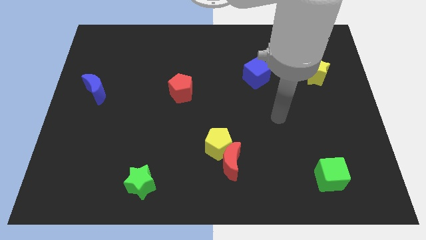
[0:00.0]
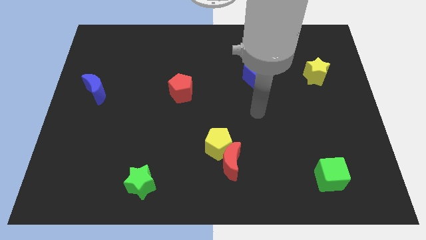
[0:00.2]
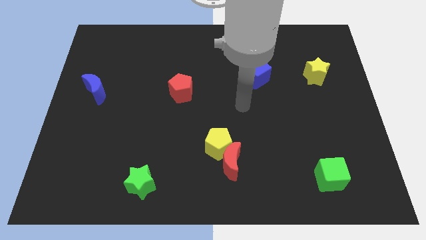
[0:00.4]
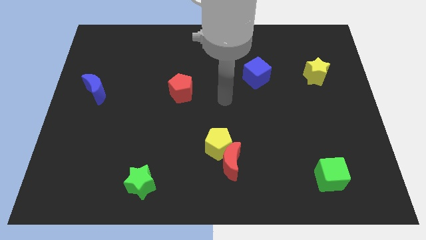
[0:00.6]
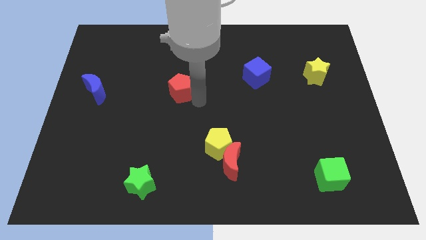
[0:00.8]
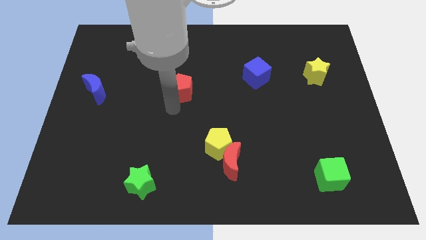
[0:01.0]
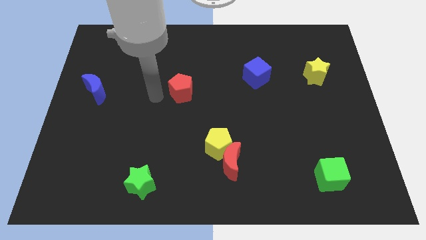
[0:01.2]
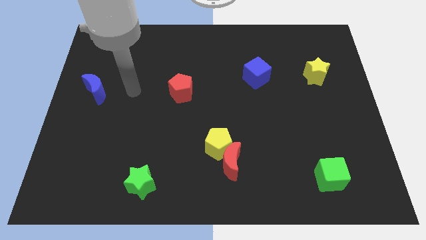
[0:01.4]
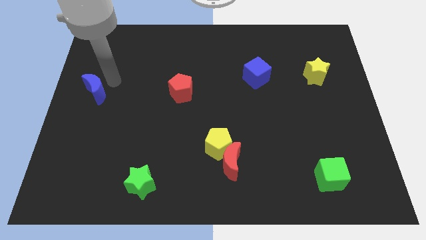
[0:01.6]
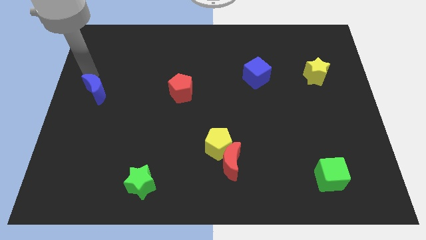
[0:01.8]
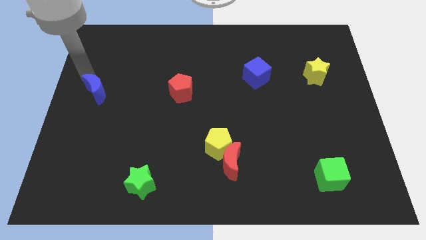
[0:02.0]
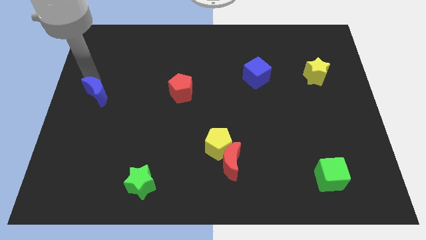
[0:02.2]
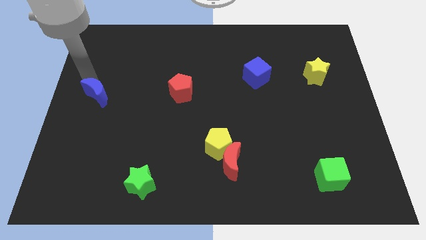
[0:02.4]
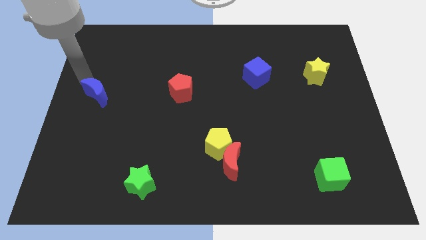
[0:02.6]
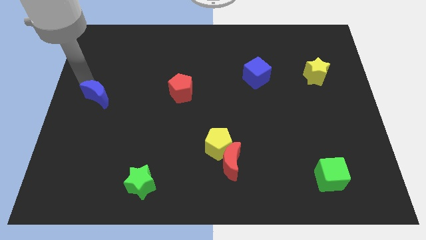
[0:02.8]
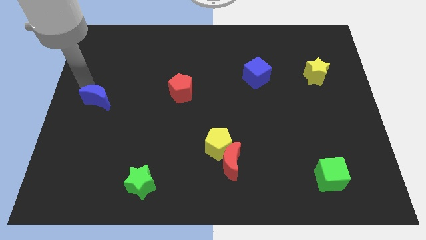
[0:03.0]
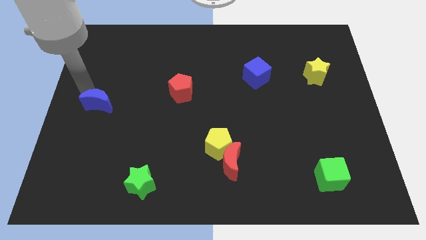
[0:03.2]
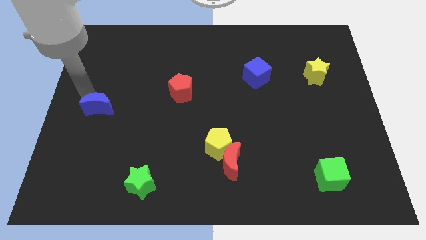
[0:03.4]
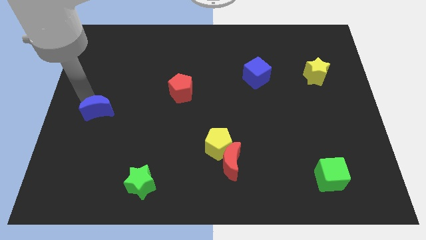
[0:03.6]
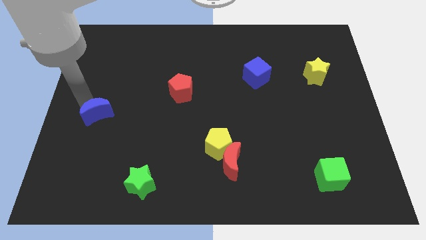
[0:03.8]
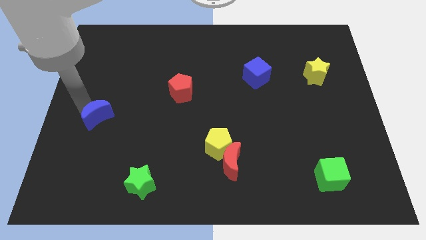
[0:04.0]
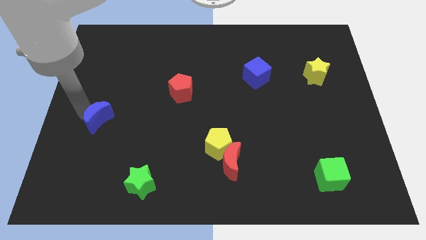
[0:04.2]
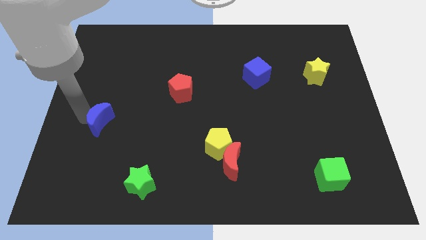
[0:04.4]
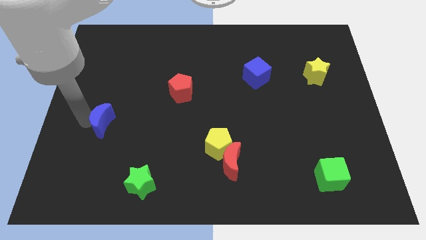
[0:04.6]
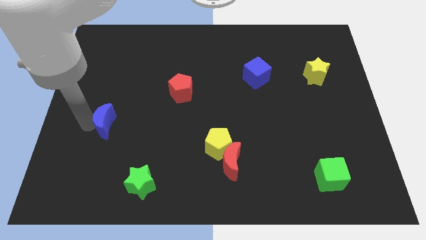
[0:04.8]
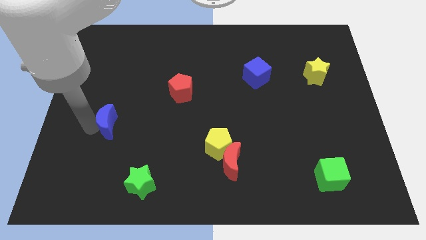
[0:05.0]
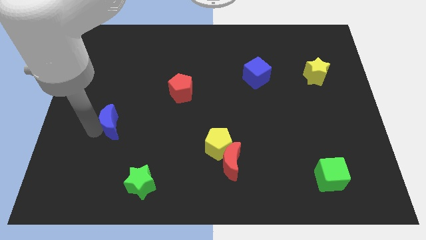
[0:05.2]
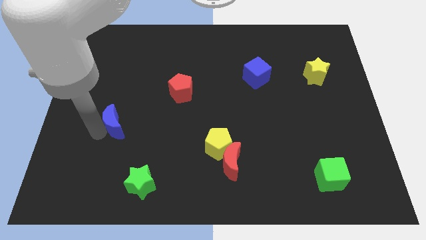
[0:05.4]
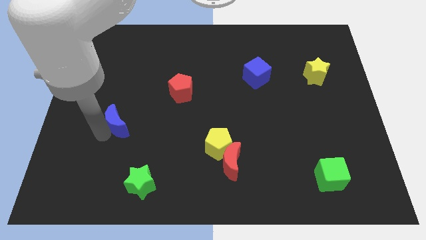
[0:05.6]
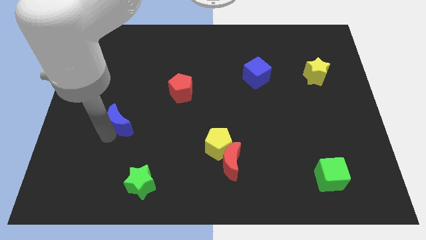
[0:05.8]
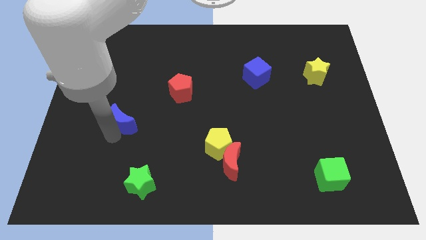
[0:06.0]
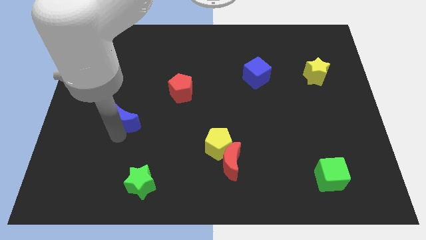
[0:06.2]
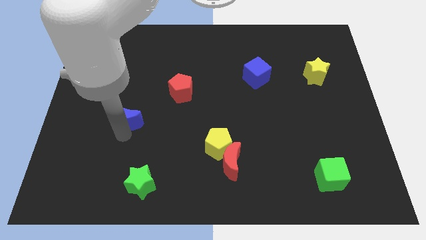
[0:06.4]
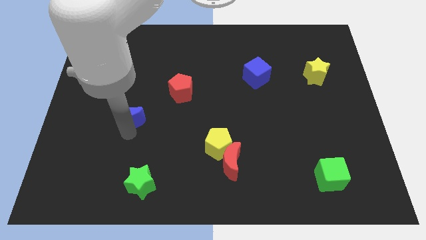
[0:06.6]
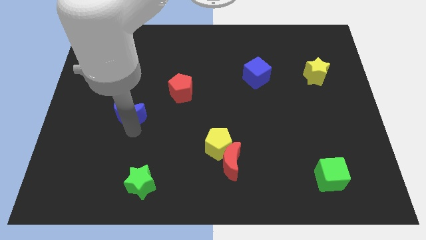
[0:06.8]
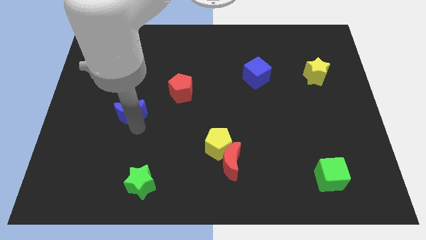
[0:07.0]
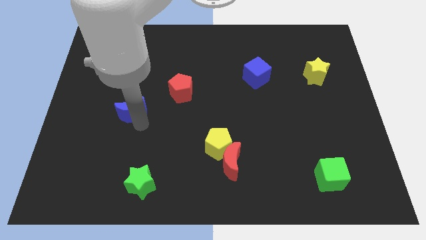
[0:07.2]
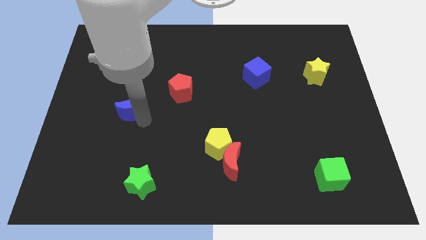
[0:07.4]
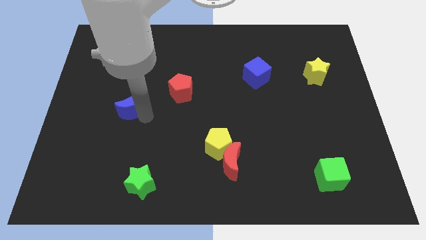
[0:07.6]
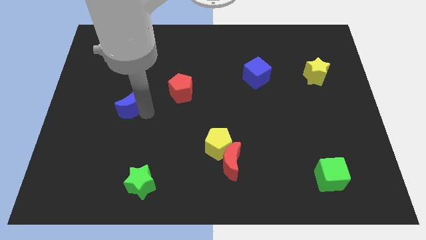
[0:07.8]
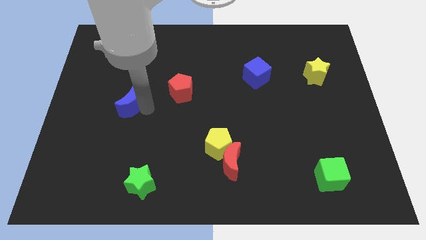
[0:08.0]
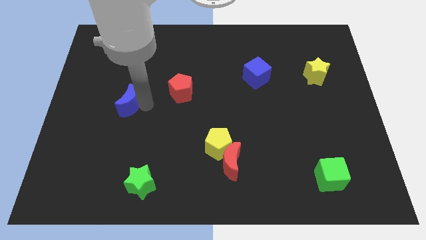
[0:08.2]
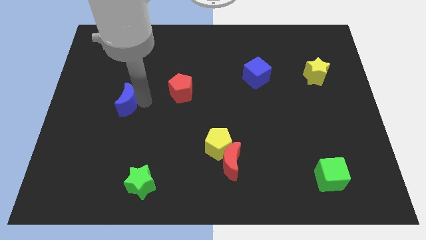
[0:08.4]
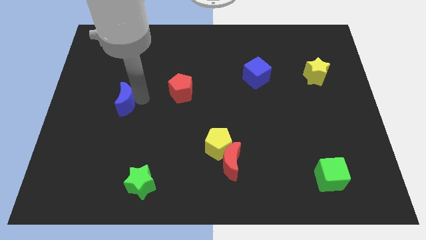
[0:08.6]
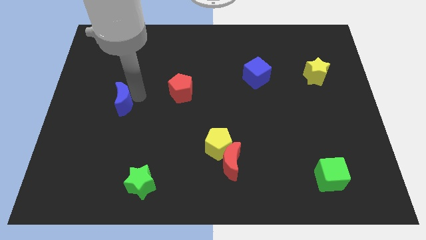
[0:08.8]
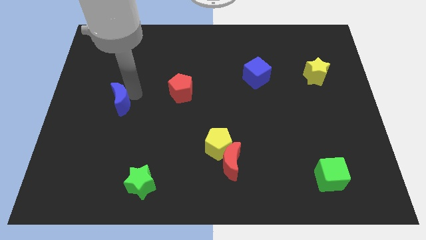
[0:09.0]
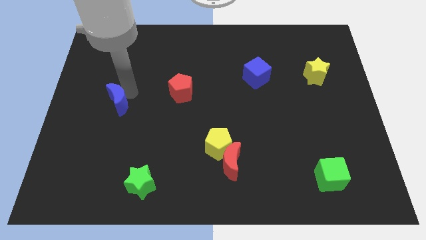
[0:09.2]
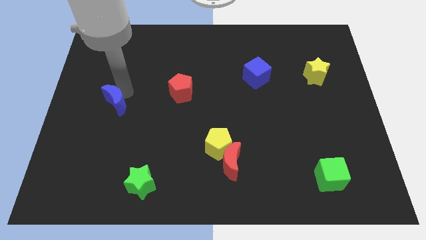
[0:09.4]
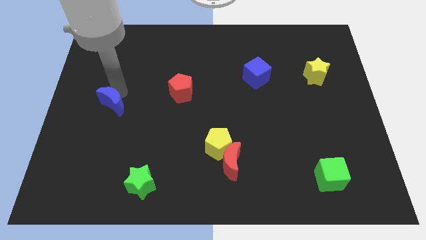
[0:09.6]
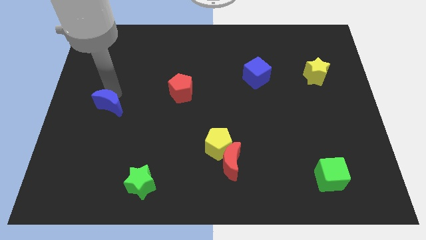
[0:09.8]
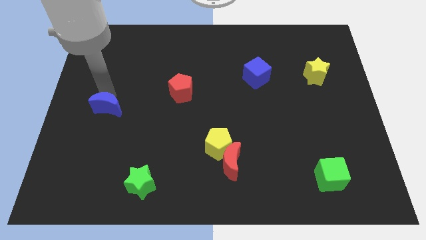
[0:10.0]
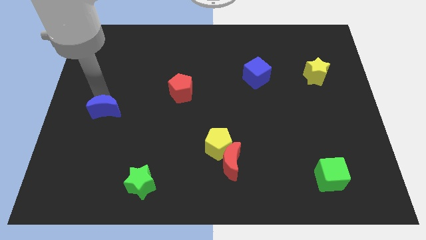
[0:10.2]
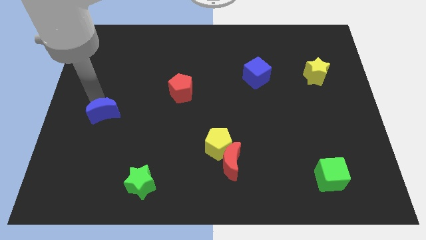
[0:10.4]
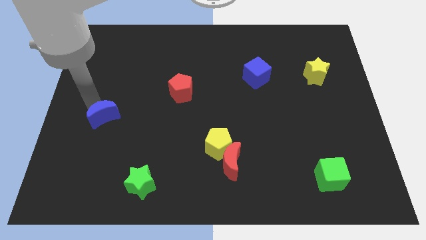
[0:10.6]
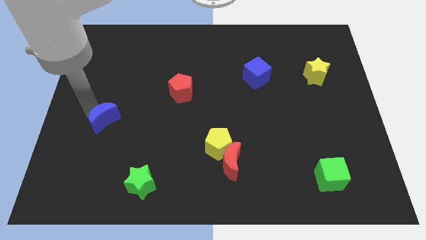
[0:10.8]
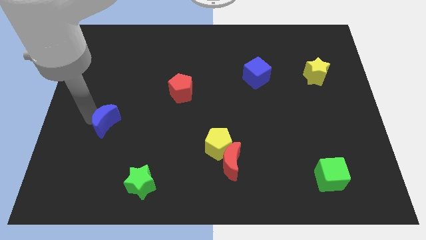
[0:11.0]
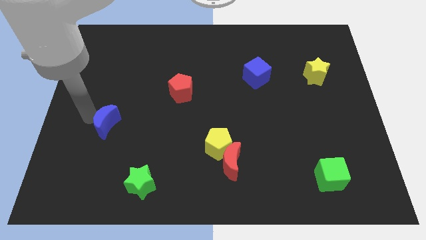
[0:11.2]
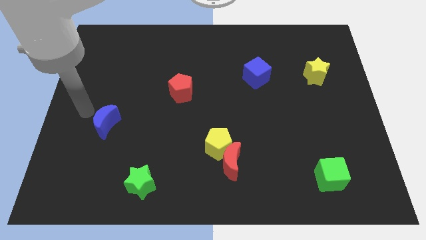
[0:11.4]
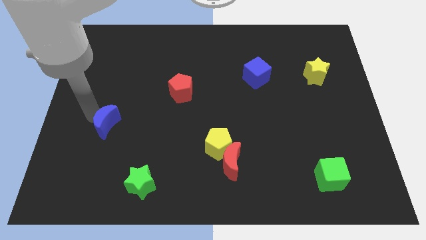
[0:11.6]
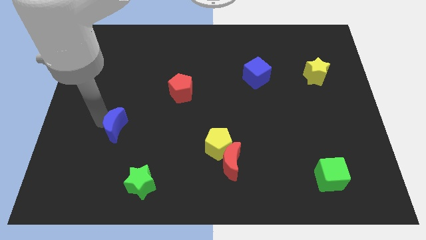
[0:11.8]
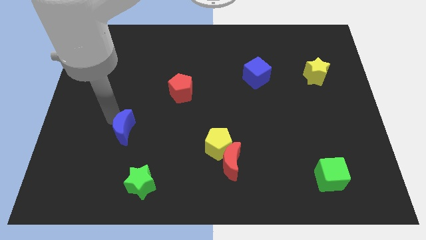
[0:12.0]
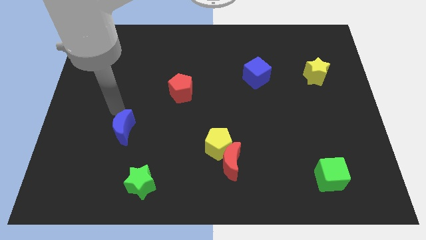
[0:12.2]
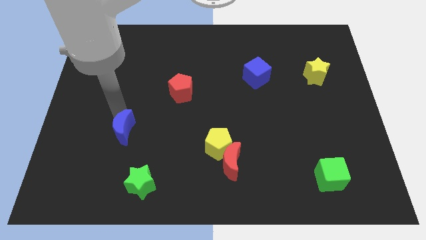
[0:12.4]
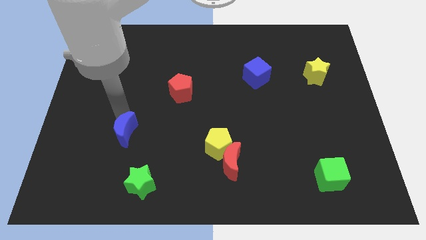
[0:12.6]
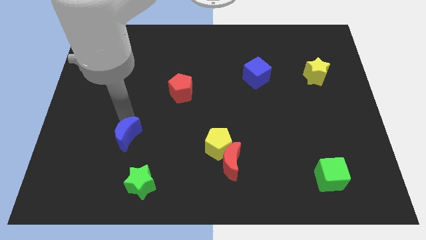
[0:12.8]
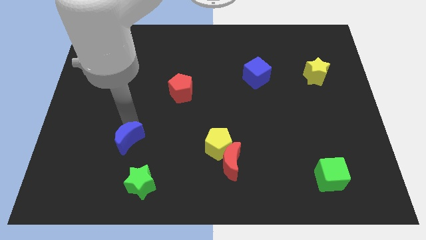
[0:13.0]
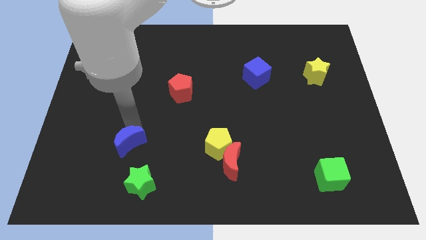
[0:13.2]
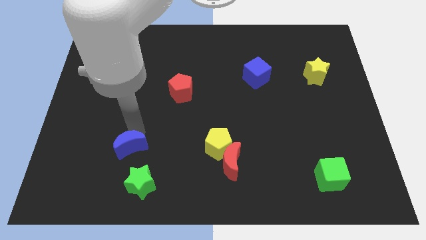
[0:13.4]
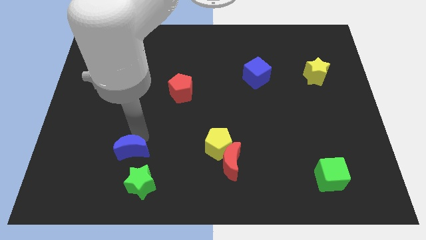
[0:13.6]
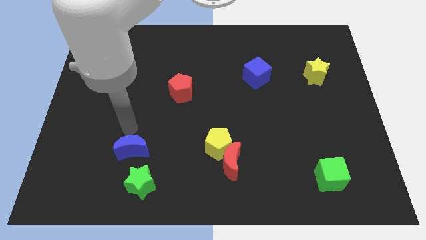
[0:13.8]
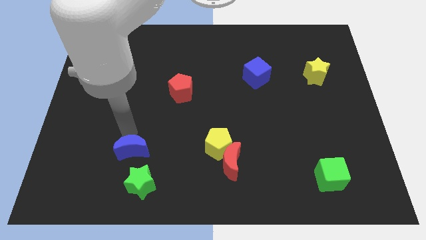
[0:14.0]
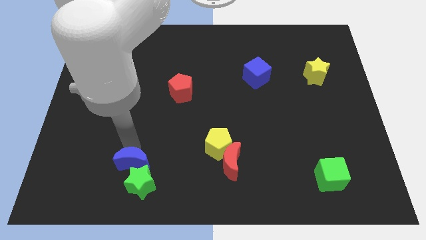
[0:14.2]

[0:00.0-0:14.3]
move the blue moon towards the green star
